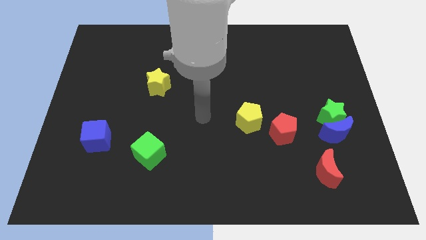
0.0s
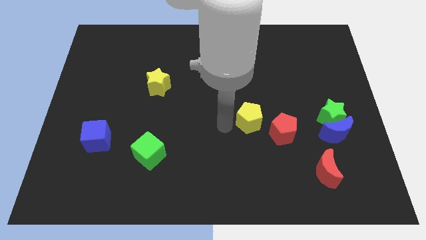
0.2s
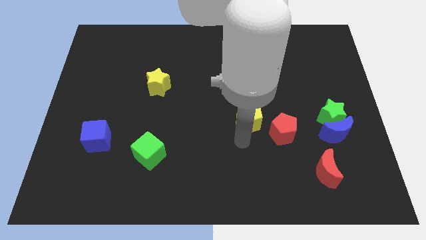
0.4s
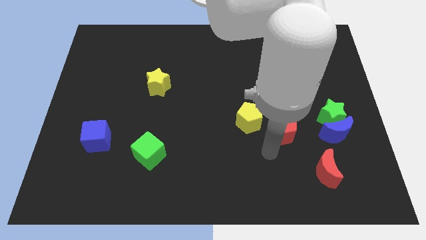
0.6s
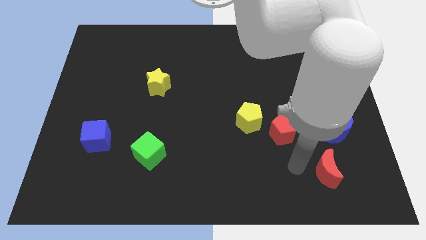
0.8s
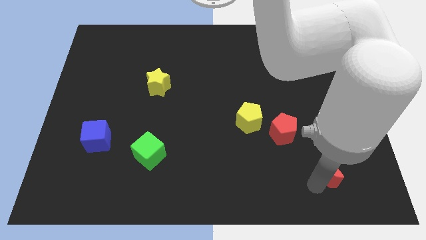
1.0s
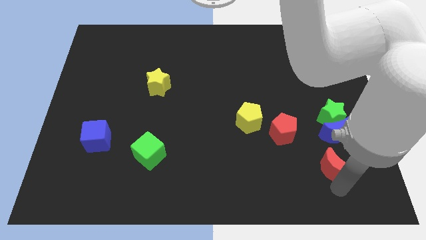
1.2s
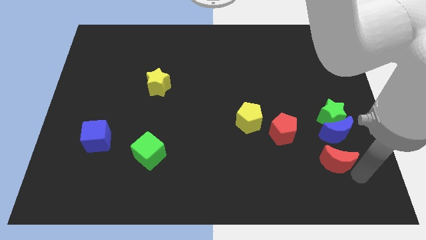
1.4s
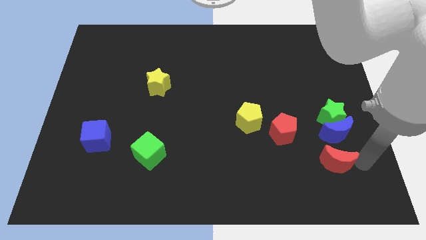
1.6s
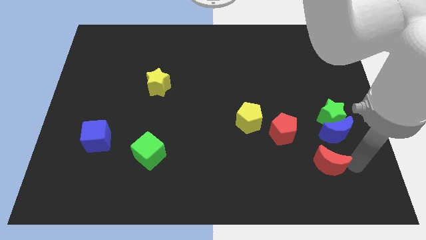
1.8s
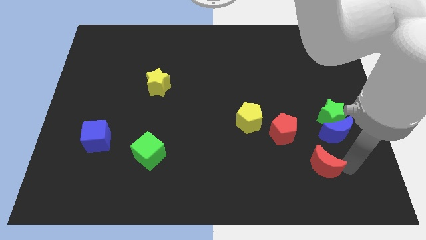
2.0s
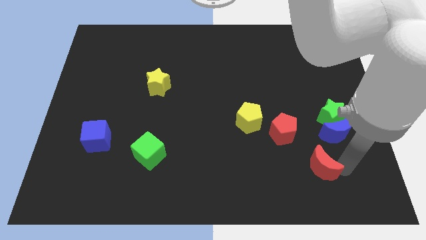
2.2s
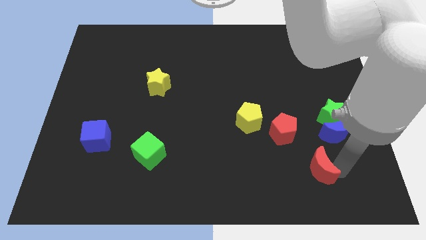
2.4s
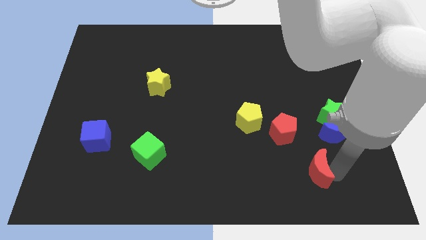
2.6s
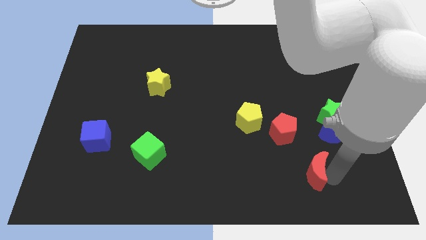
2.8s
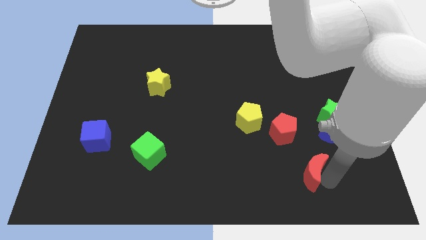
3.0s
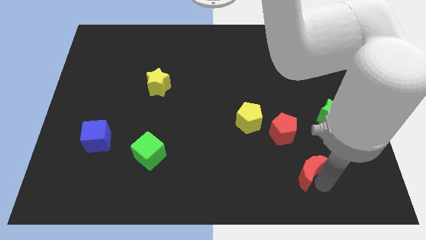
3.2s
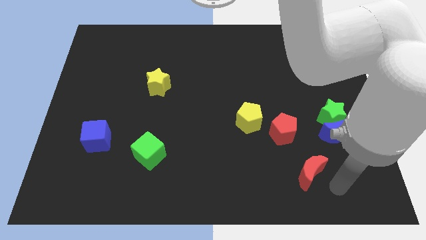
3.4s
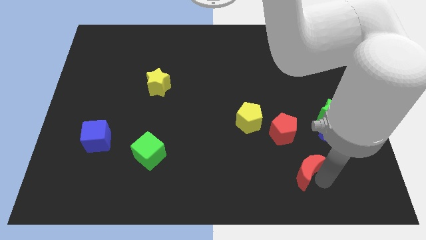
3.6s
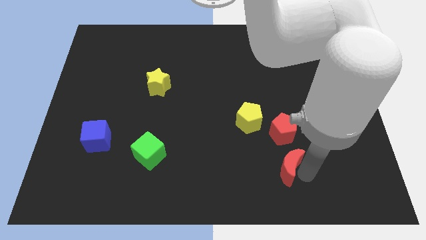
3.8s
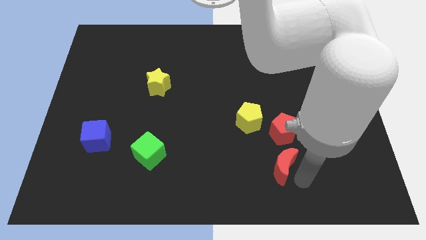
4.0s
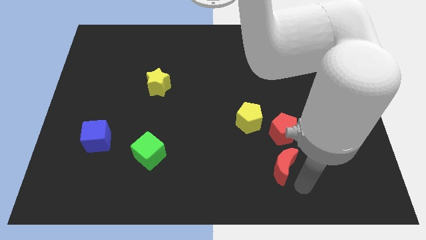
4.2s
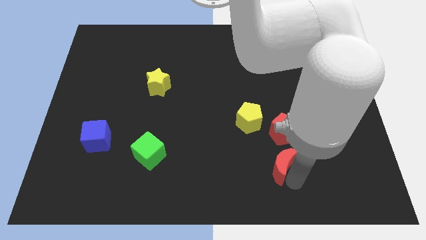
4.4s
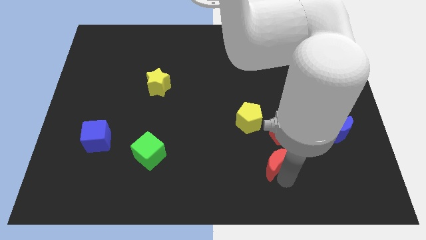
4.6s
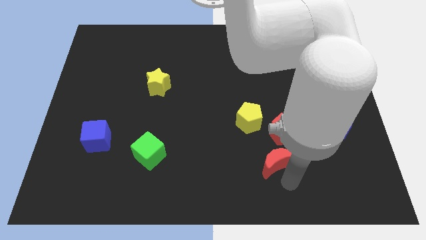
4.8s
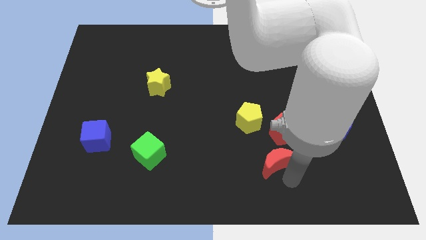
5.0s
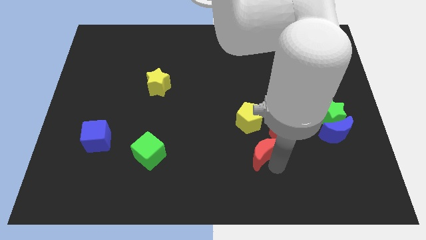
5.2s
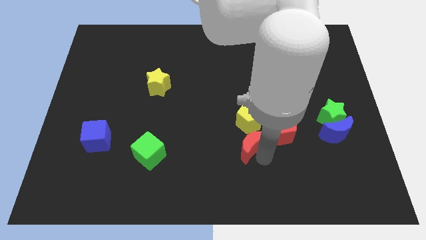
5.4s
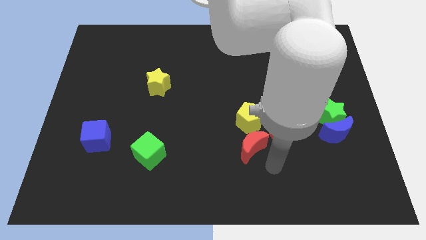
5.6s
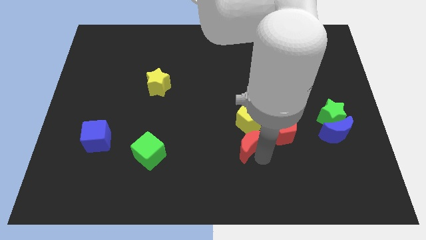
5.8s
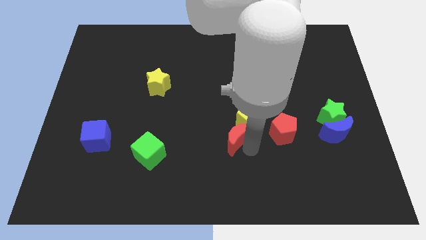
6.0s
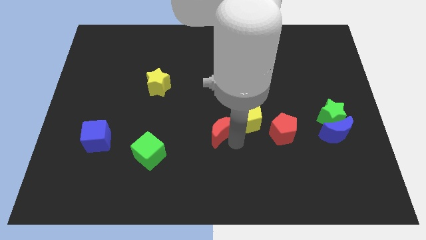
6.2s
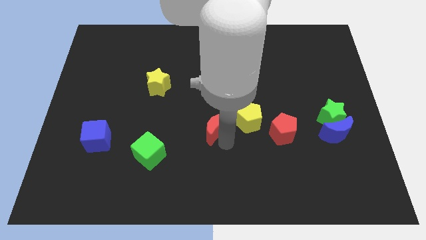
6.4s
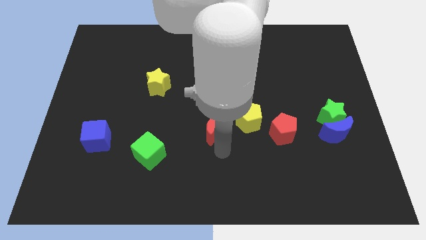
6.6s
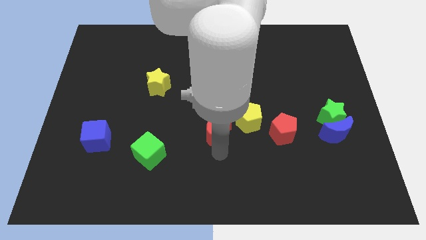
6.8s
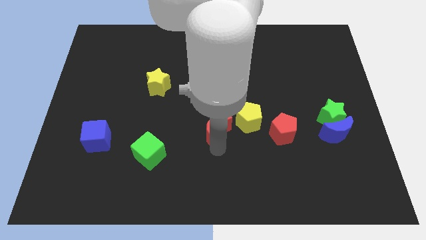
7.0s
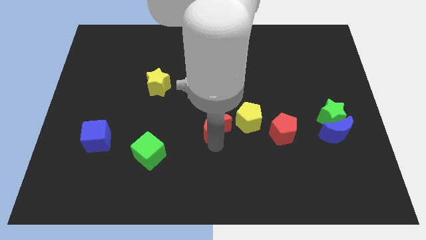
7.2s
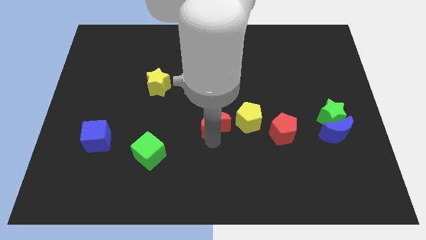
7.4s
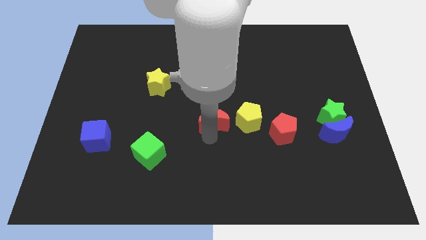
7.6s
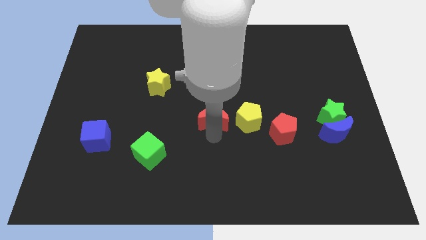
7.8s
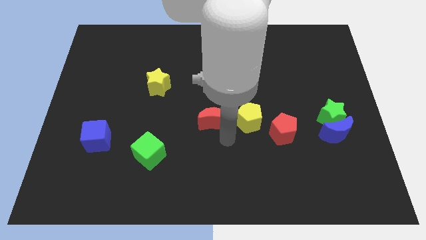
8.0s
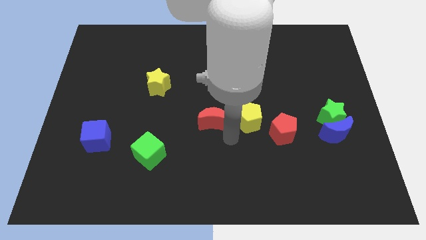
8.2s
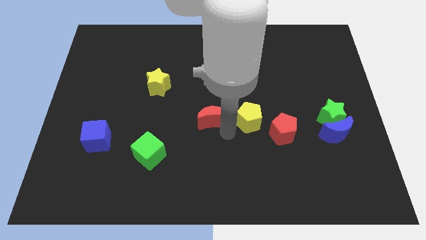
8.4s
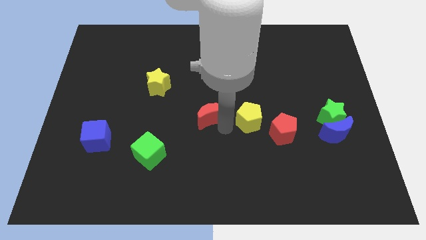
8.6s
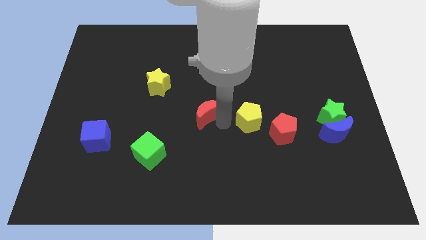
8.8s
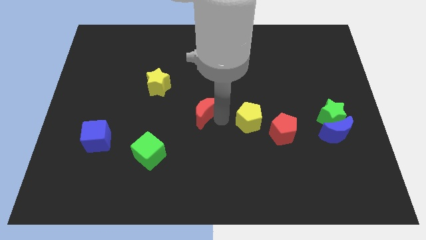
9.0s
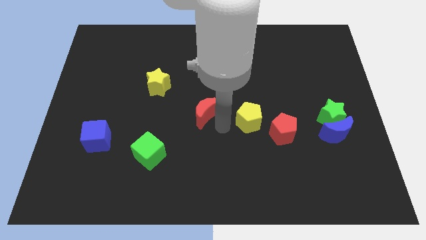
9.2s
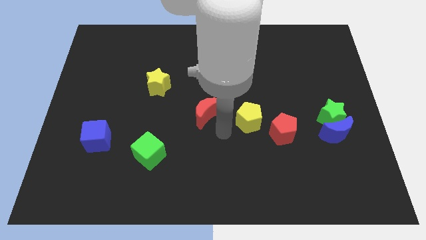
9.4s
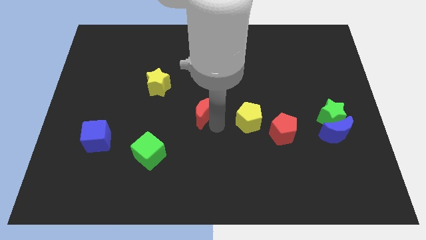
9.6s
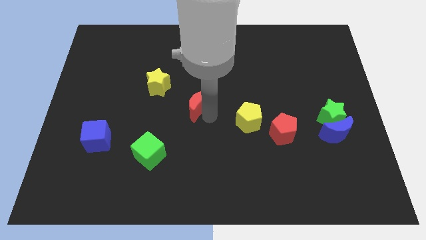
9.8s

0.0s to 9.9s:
put the red moon to the bottom right of the yellow star

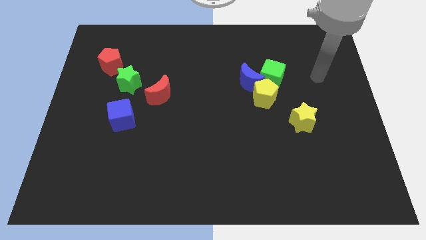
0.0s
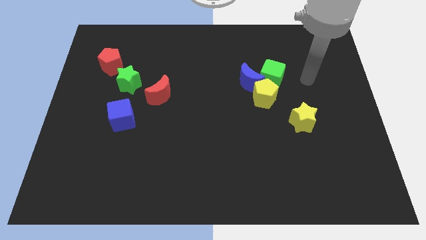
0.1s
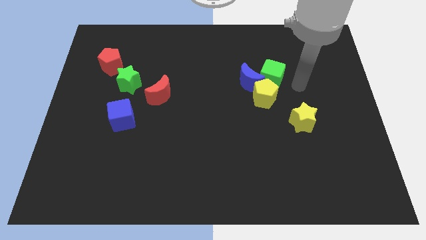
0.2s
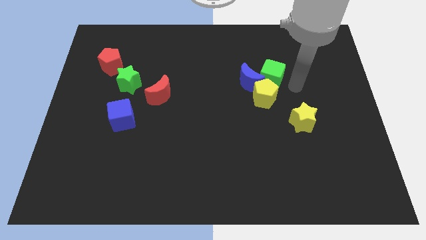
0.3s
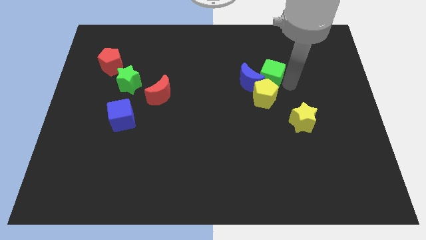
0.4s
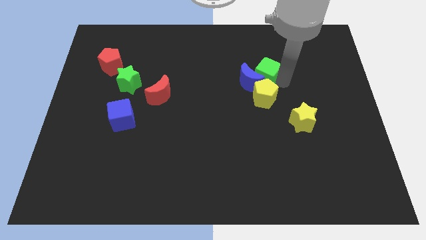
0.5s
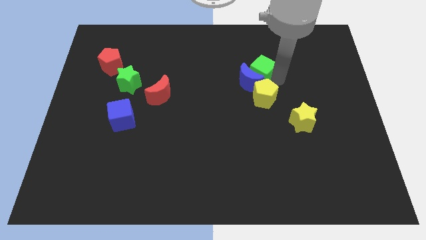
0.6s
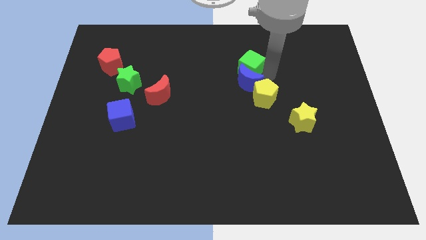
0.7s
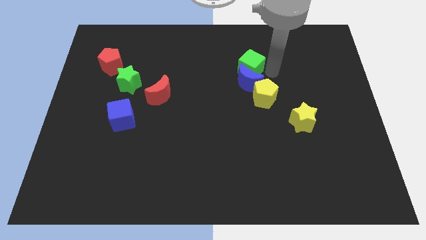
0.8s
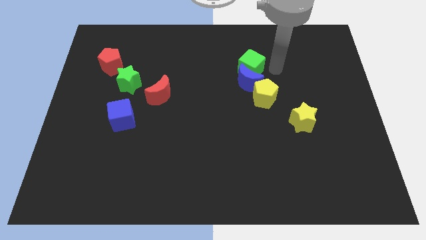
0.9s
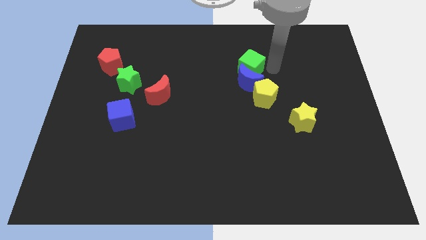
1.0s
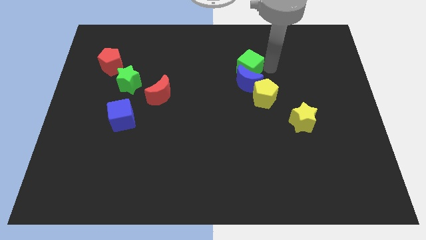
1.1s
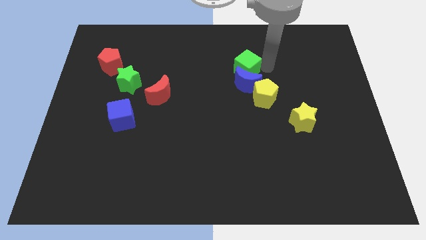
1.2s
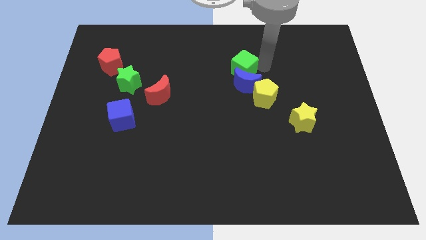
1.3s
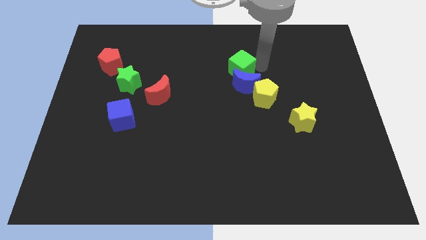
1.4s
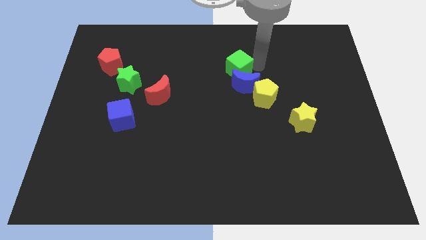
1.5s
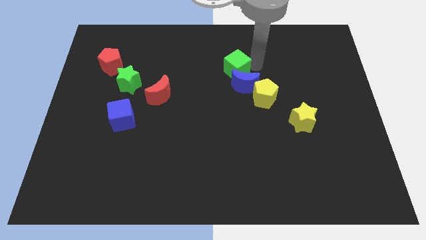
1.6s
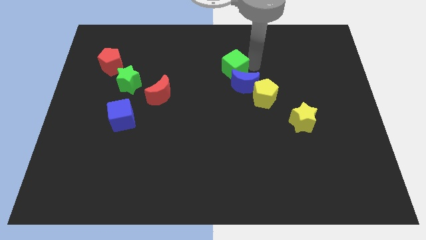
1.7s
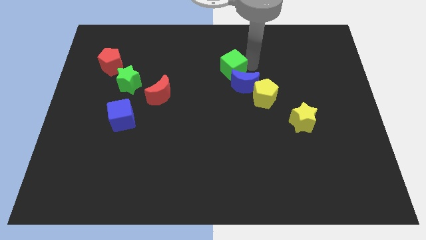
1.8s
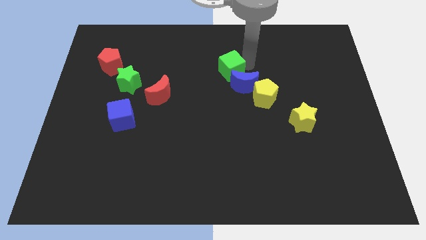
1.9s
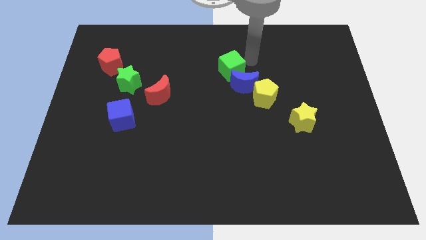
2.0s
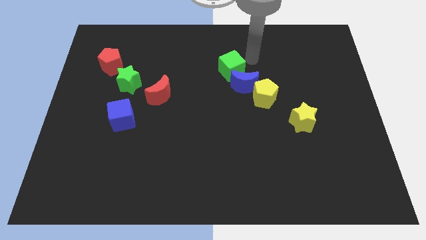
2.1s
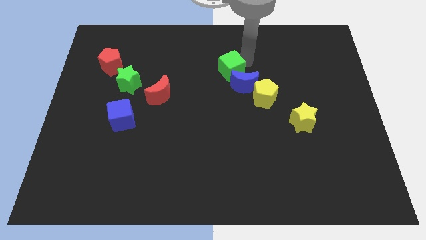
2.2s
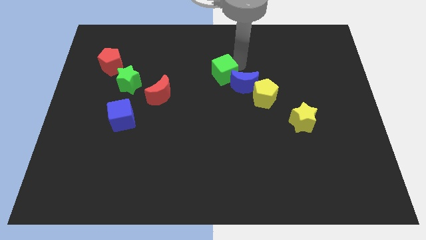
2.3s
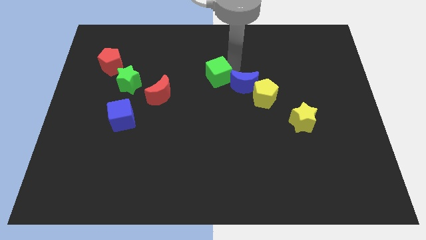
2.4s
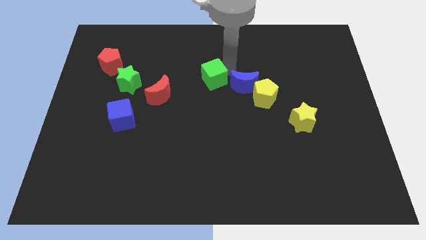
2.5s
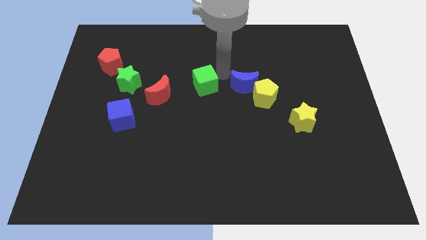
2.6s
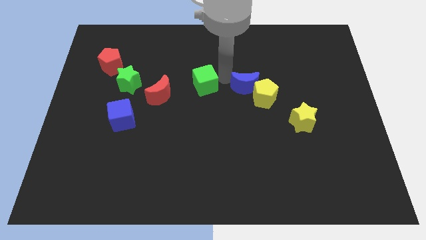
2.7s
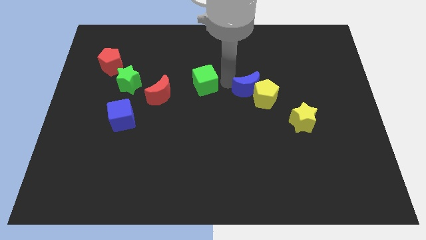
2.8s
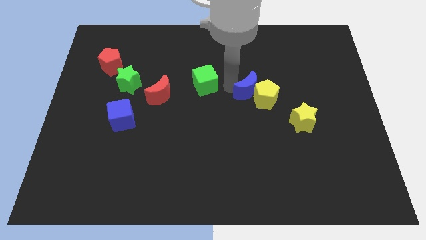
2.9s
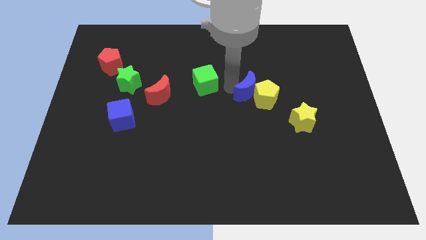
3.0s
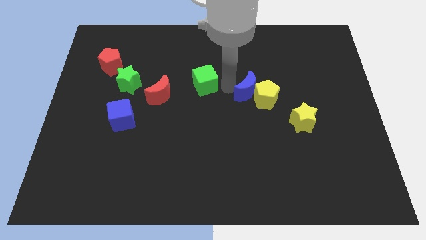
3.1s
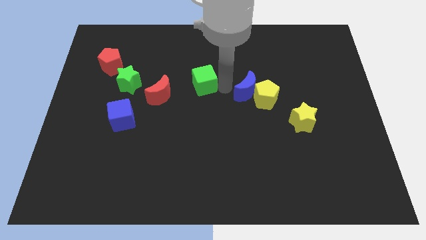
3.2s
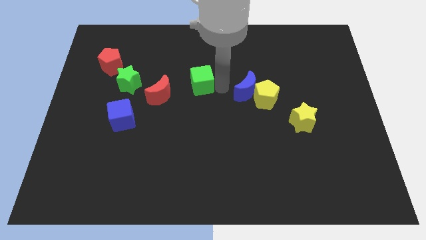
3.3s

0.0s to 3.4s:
put the green cube to the top right of the red moon
